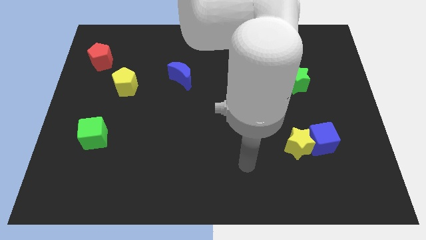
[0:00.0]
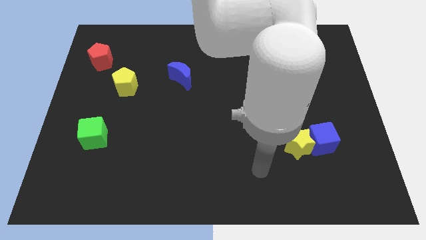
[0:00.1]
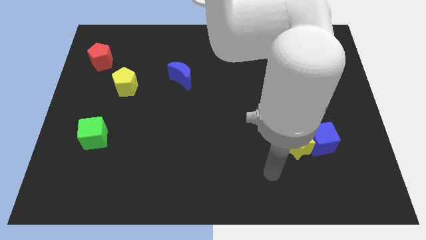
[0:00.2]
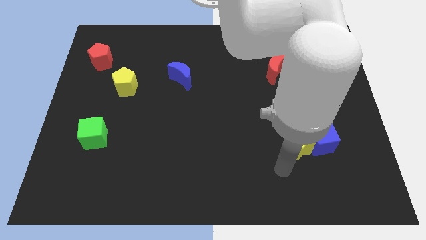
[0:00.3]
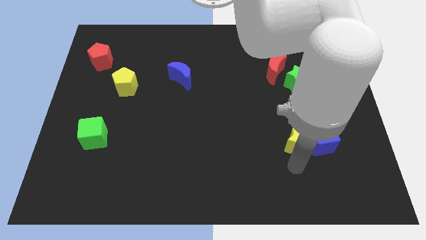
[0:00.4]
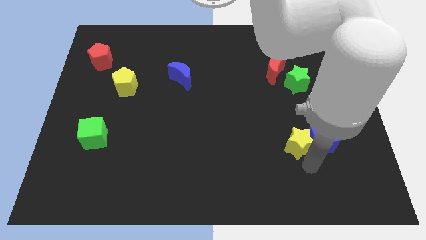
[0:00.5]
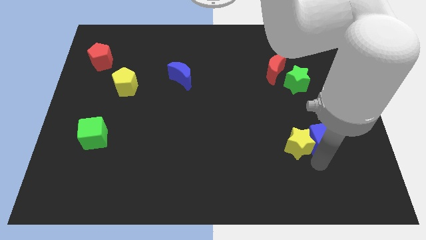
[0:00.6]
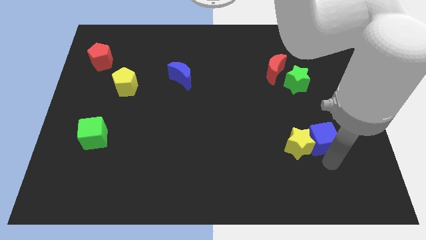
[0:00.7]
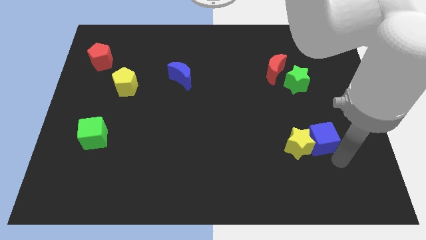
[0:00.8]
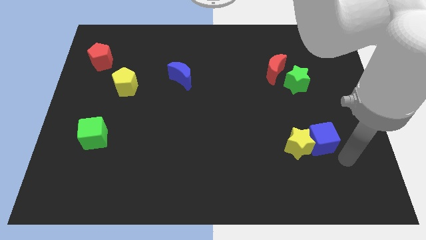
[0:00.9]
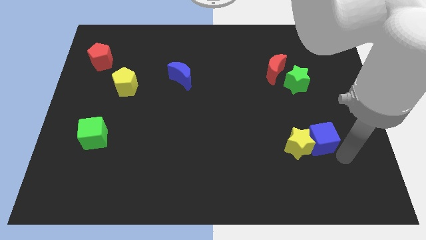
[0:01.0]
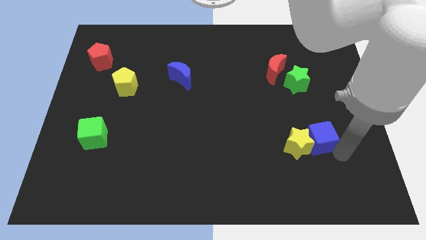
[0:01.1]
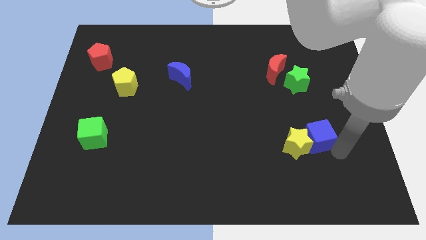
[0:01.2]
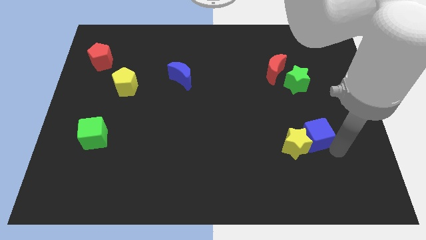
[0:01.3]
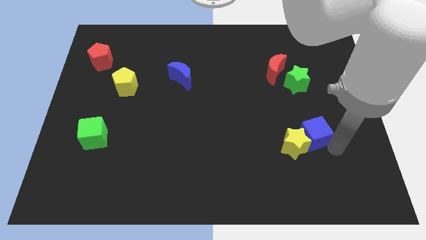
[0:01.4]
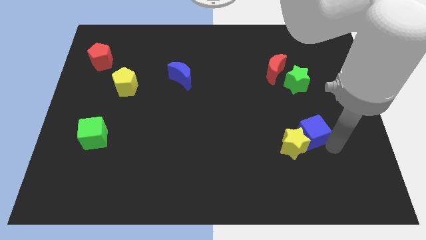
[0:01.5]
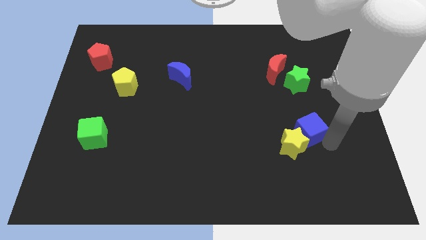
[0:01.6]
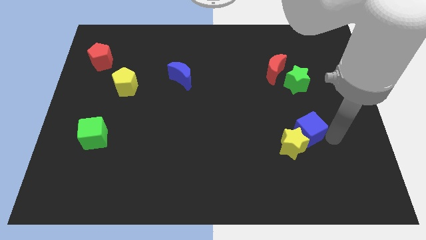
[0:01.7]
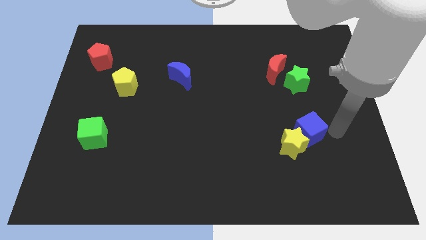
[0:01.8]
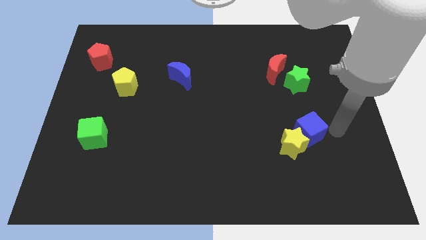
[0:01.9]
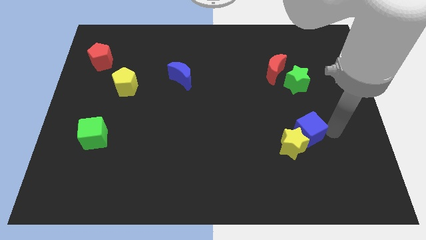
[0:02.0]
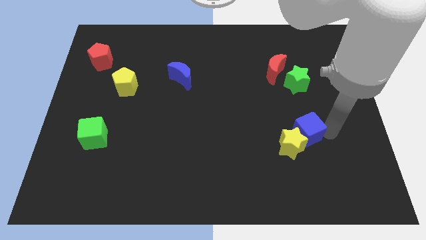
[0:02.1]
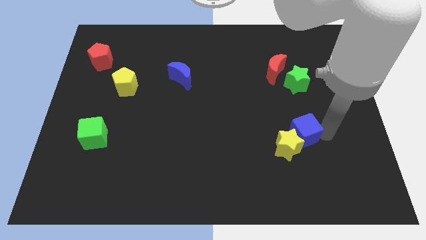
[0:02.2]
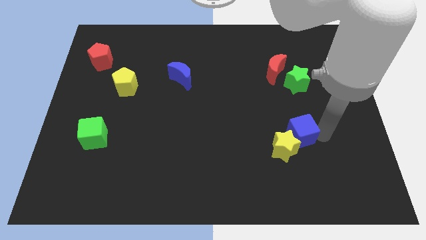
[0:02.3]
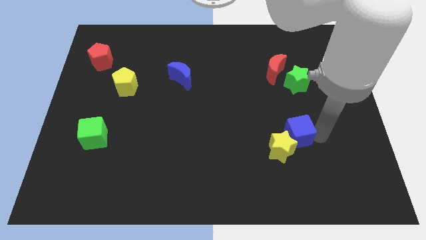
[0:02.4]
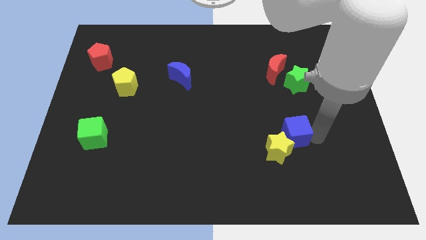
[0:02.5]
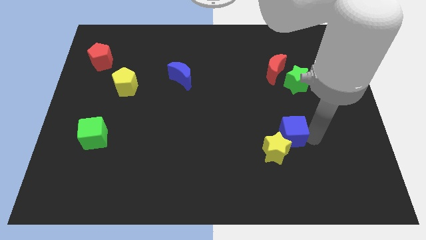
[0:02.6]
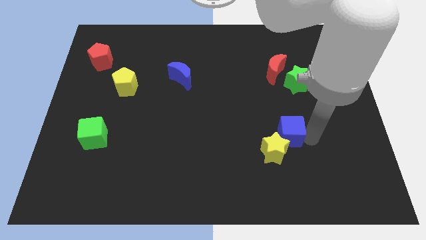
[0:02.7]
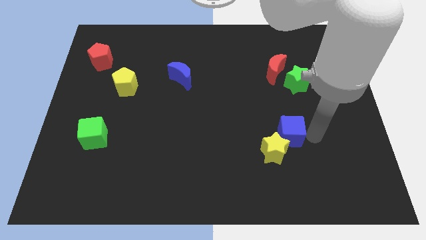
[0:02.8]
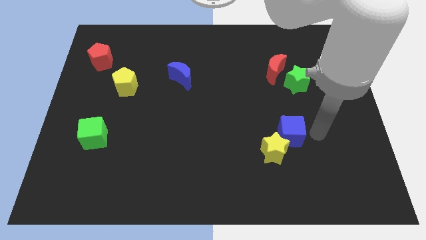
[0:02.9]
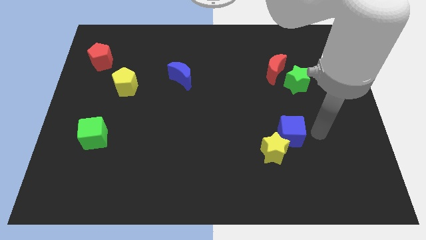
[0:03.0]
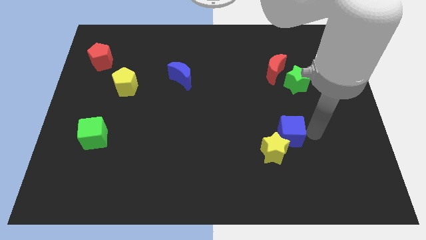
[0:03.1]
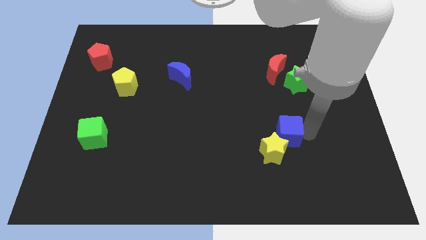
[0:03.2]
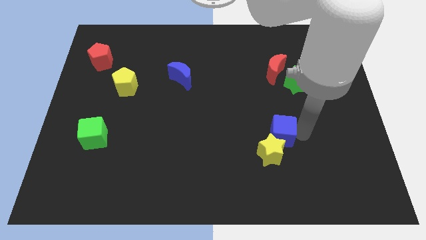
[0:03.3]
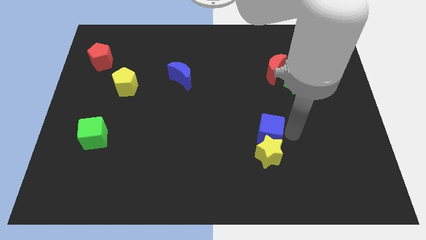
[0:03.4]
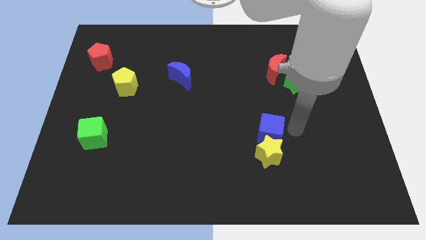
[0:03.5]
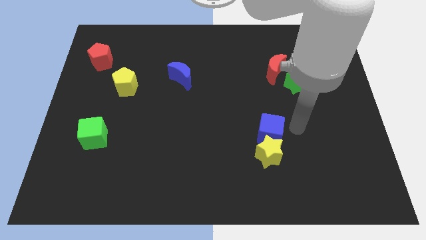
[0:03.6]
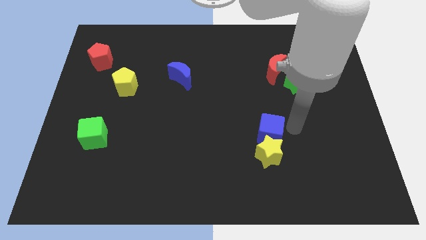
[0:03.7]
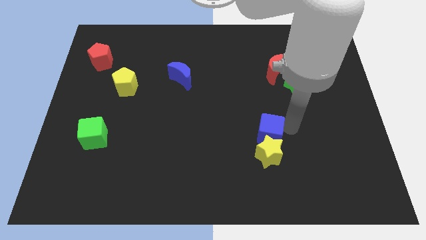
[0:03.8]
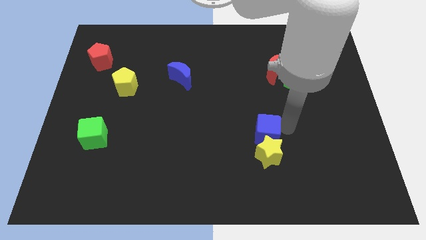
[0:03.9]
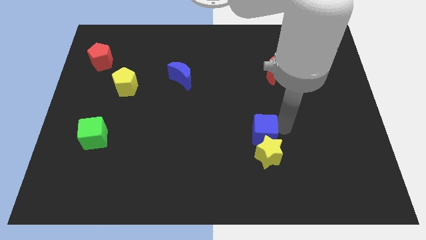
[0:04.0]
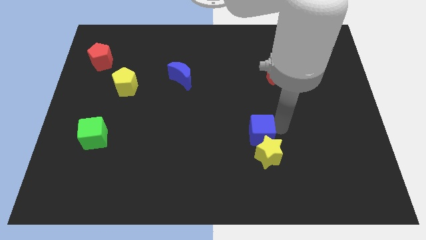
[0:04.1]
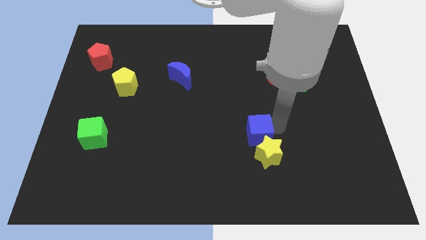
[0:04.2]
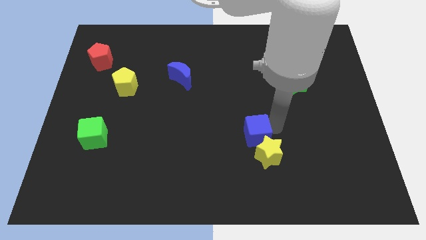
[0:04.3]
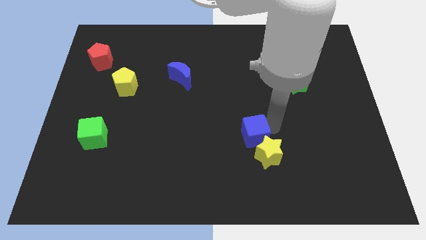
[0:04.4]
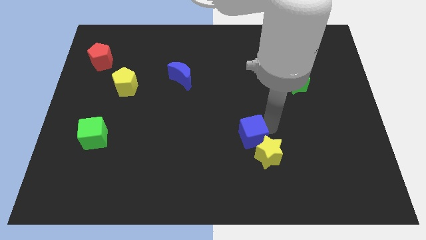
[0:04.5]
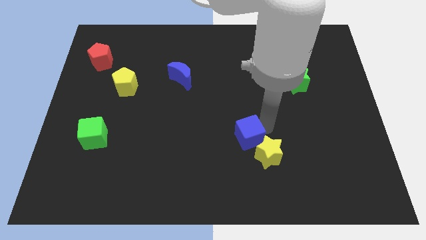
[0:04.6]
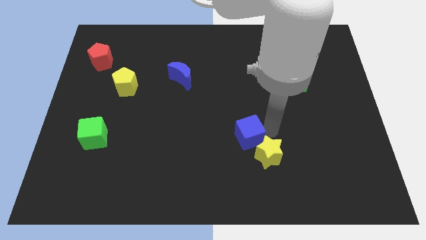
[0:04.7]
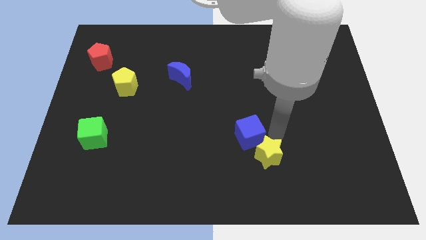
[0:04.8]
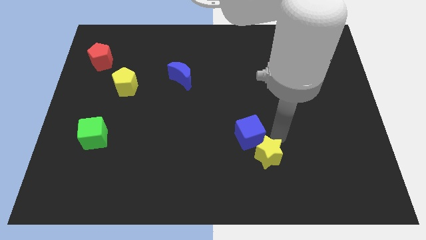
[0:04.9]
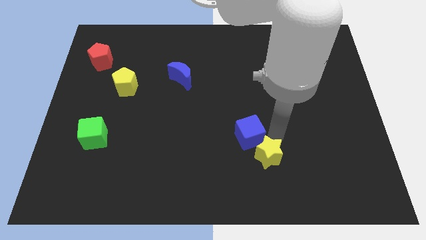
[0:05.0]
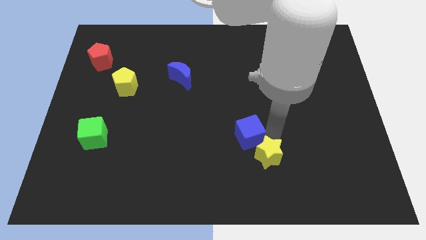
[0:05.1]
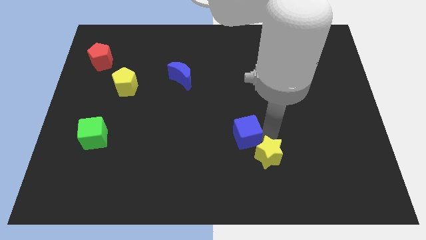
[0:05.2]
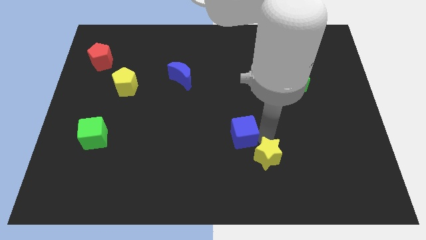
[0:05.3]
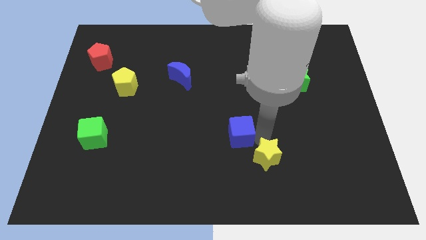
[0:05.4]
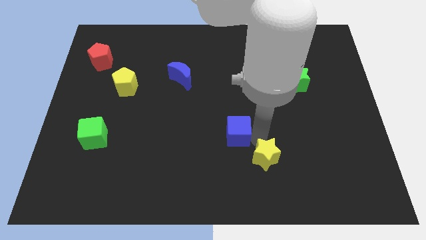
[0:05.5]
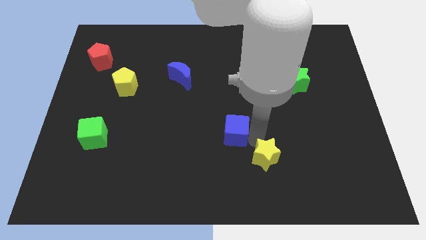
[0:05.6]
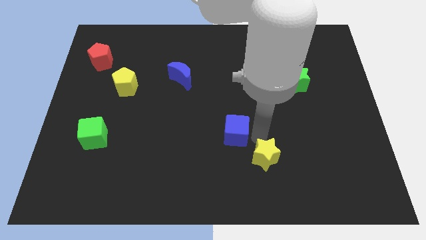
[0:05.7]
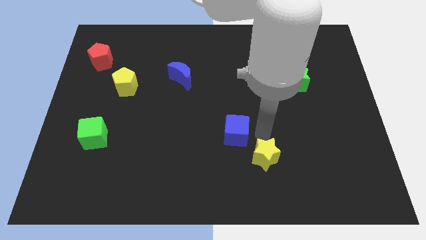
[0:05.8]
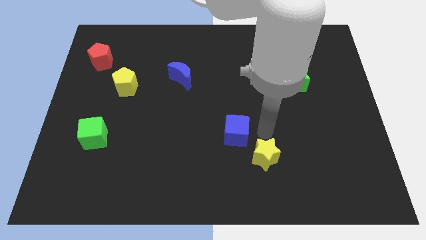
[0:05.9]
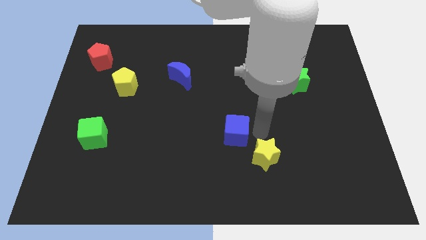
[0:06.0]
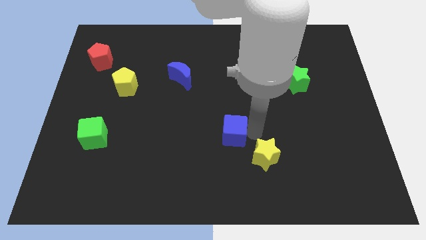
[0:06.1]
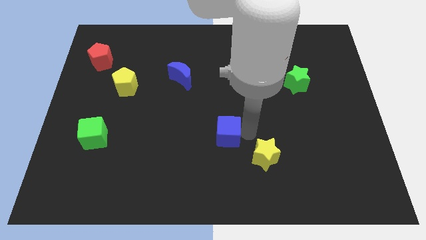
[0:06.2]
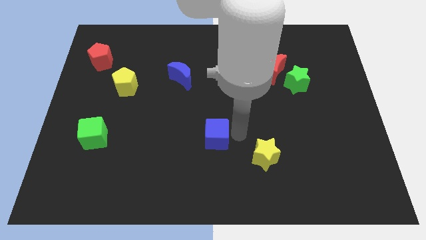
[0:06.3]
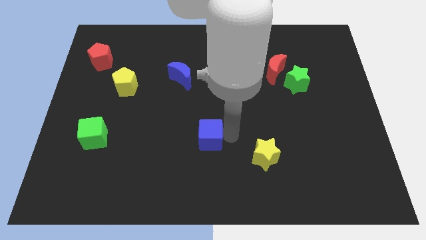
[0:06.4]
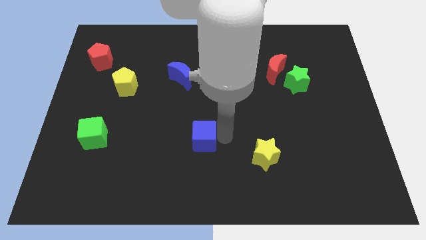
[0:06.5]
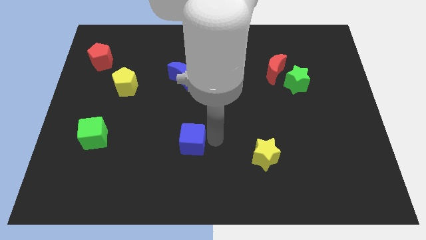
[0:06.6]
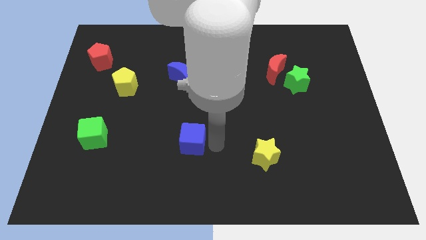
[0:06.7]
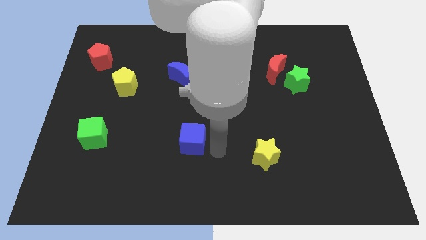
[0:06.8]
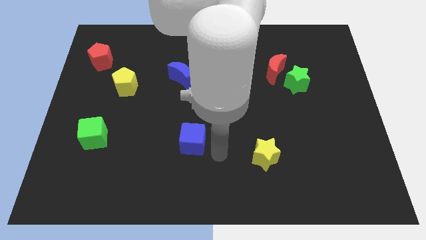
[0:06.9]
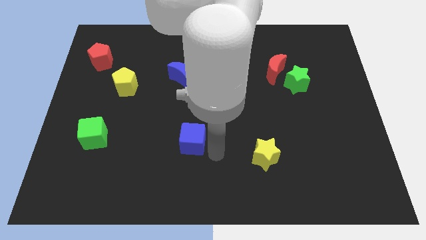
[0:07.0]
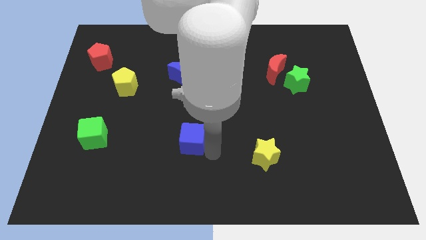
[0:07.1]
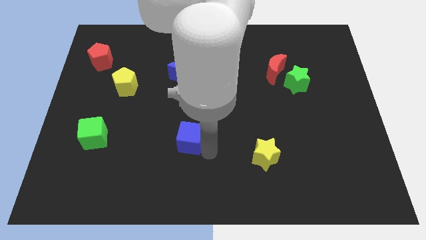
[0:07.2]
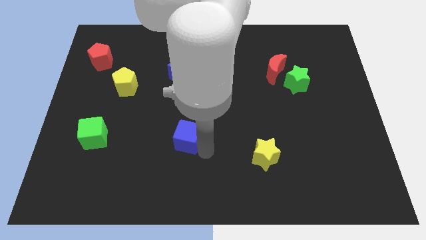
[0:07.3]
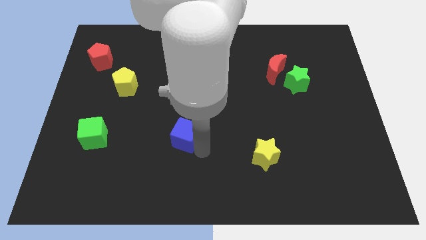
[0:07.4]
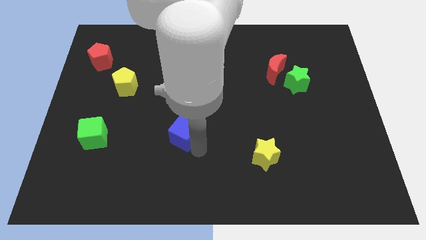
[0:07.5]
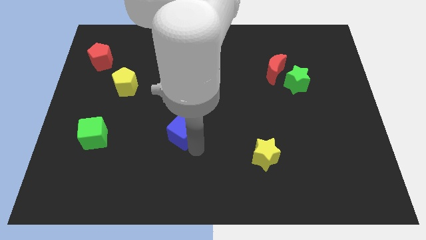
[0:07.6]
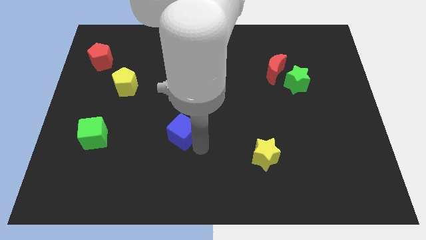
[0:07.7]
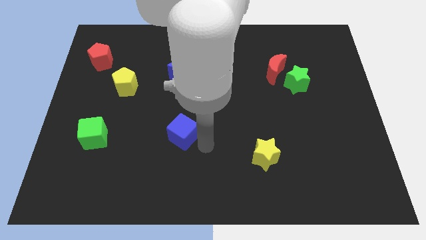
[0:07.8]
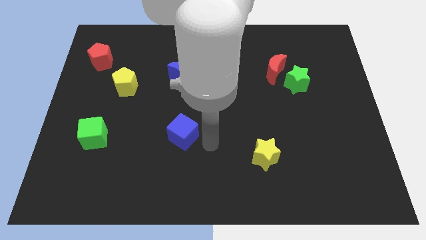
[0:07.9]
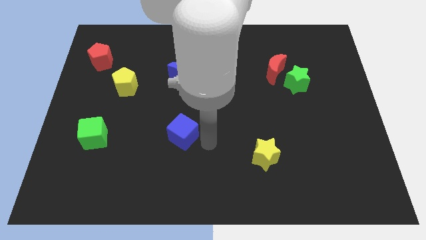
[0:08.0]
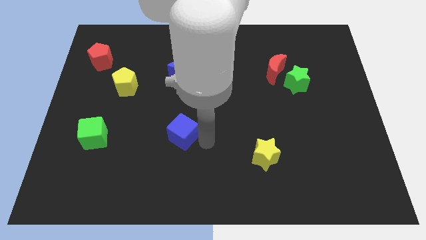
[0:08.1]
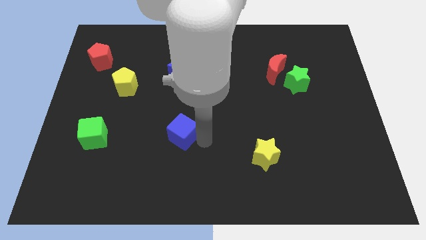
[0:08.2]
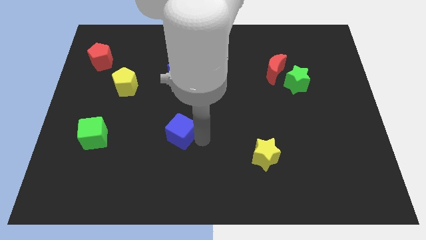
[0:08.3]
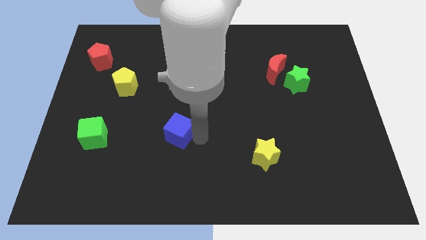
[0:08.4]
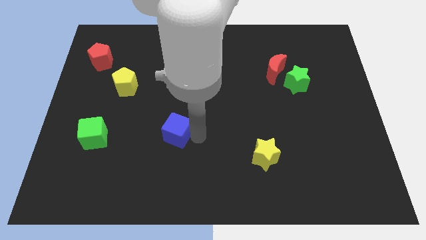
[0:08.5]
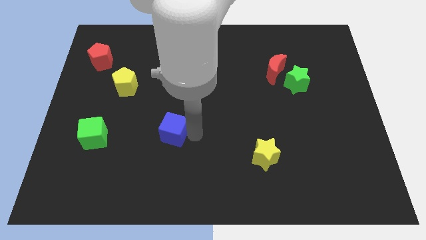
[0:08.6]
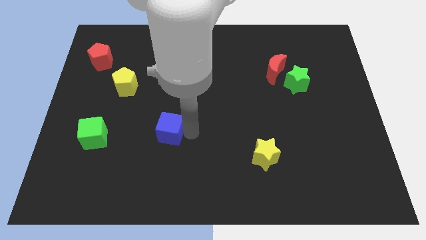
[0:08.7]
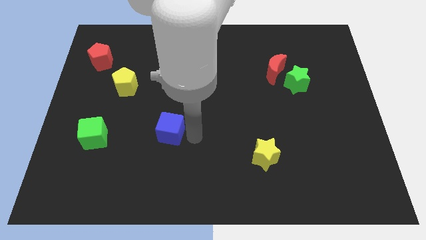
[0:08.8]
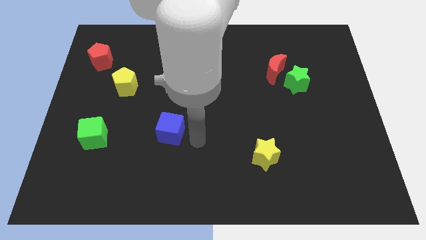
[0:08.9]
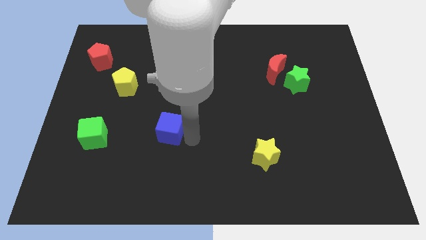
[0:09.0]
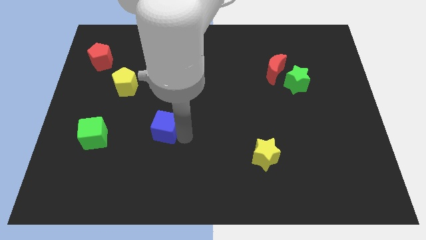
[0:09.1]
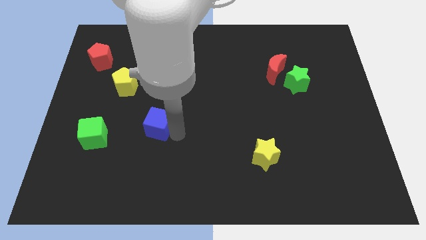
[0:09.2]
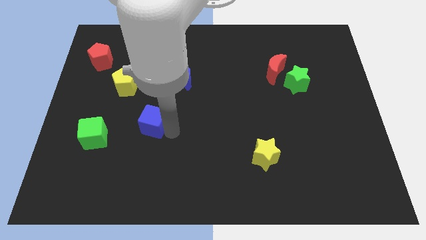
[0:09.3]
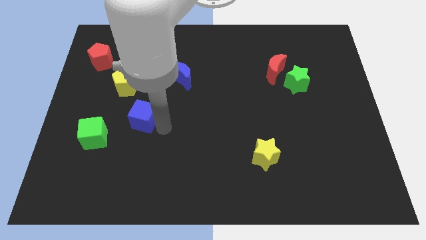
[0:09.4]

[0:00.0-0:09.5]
push the blue cube to the top right side of the green cube
